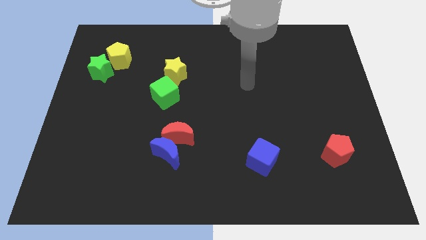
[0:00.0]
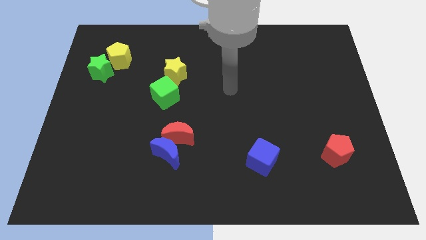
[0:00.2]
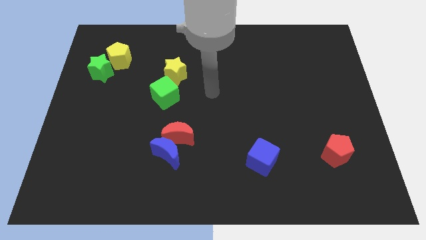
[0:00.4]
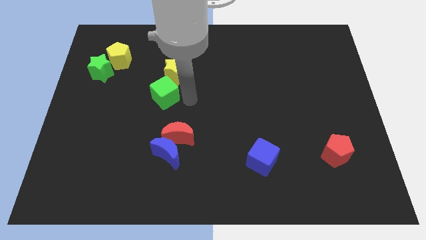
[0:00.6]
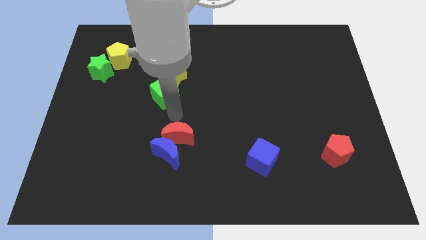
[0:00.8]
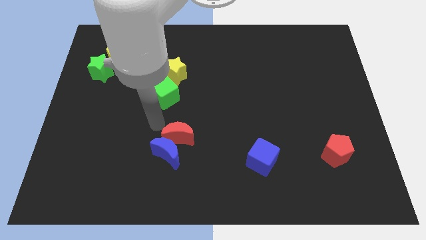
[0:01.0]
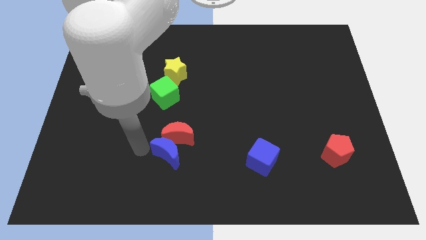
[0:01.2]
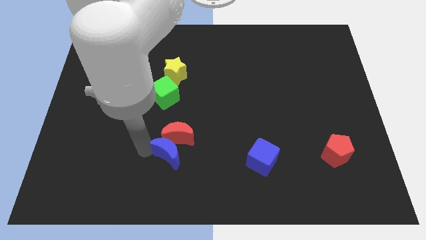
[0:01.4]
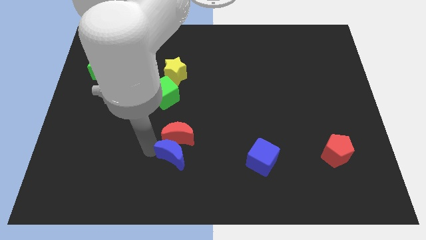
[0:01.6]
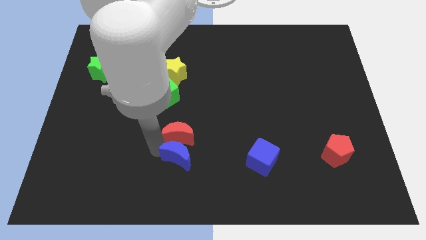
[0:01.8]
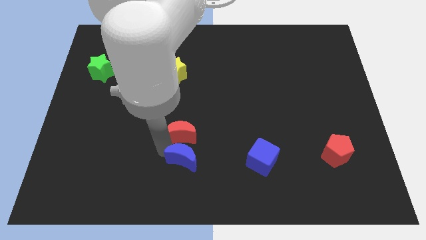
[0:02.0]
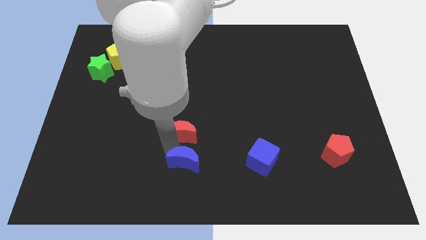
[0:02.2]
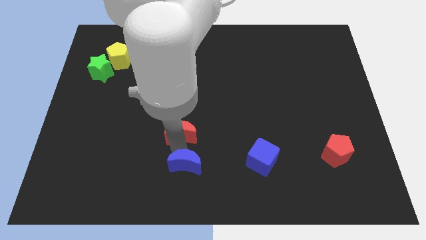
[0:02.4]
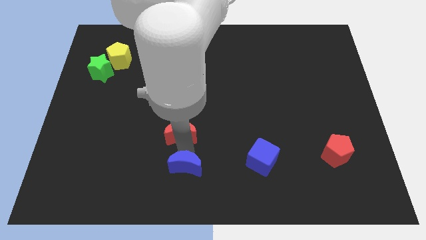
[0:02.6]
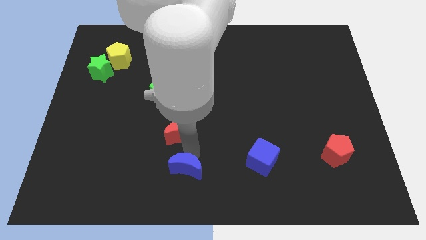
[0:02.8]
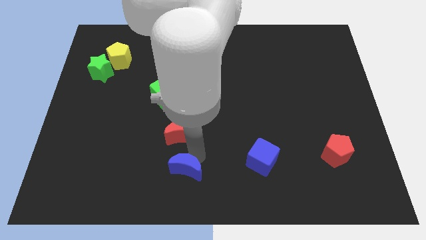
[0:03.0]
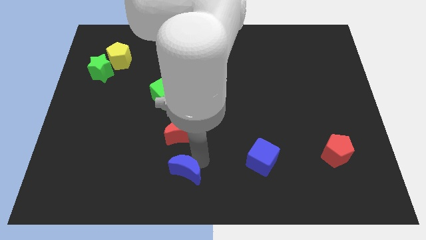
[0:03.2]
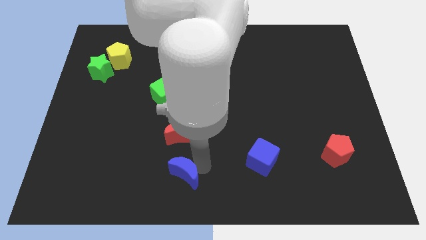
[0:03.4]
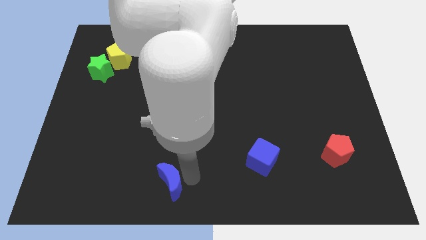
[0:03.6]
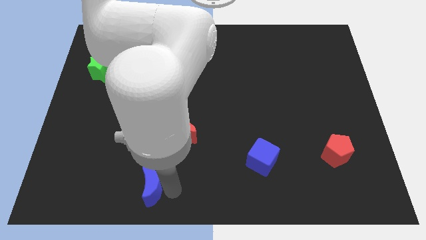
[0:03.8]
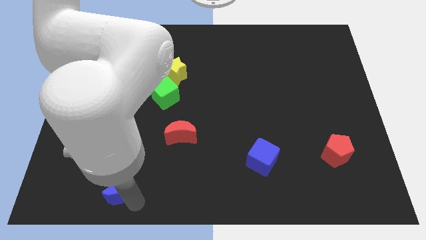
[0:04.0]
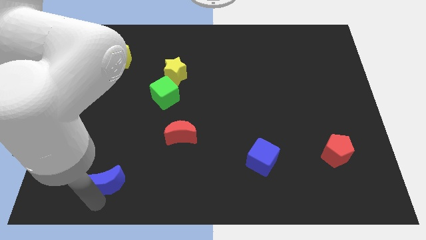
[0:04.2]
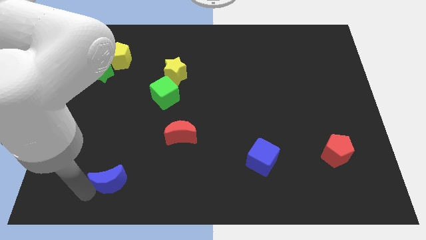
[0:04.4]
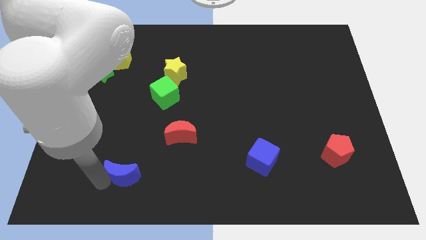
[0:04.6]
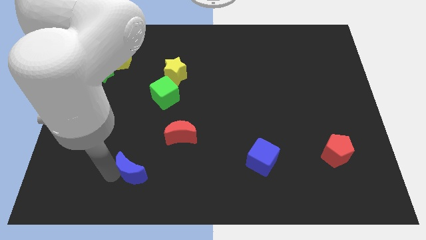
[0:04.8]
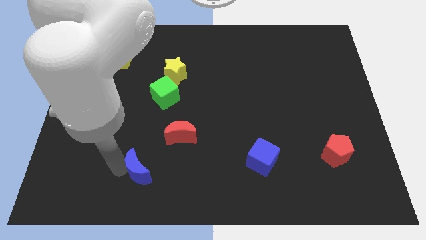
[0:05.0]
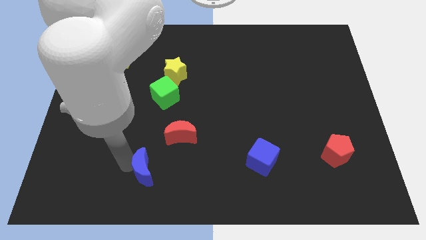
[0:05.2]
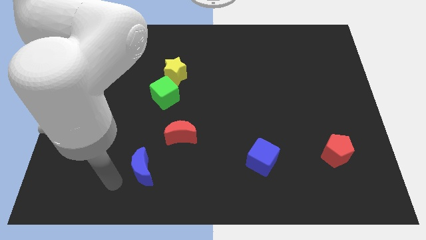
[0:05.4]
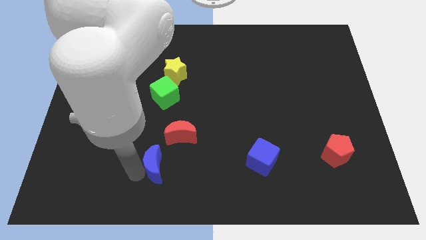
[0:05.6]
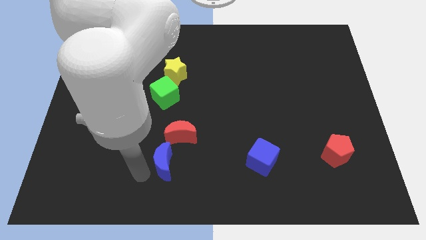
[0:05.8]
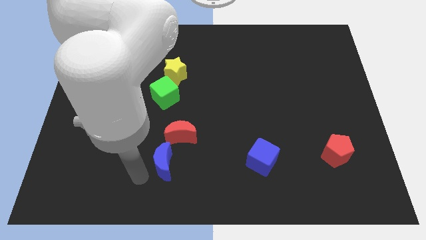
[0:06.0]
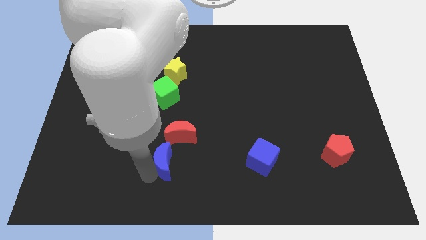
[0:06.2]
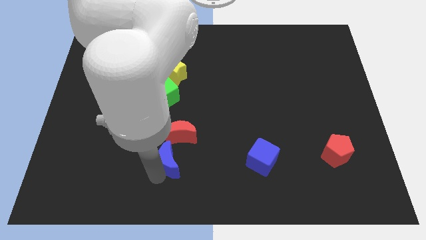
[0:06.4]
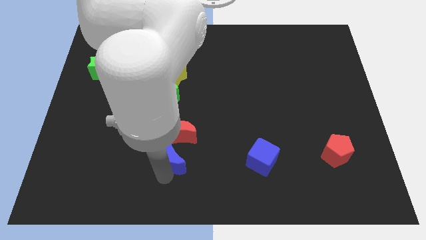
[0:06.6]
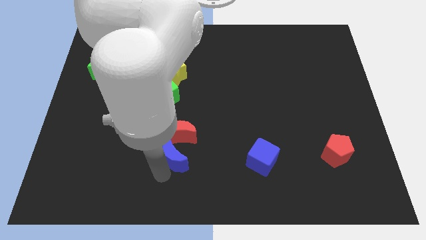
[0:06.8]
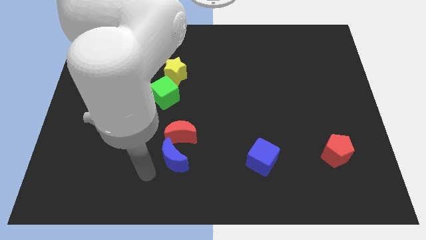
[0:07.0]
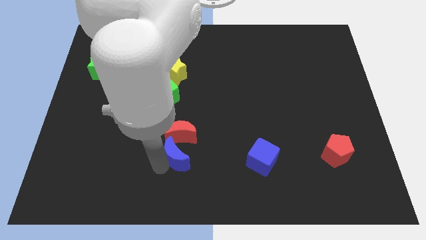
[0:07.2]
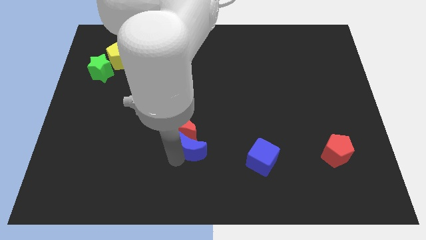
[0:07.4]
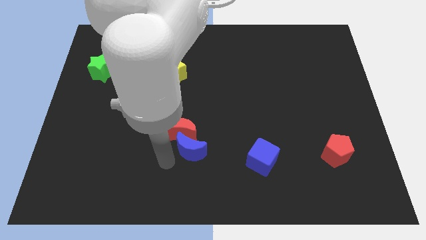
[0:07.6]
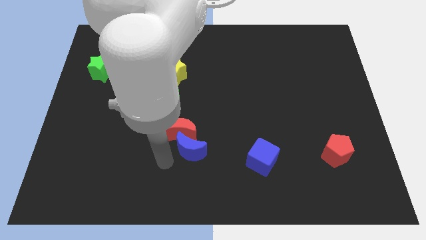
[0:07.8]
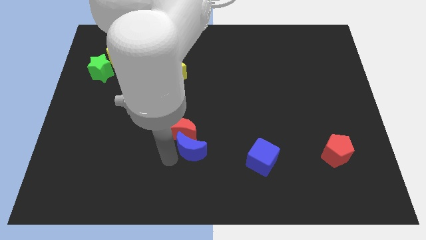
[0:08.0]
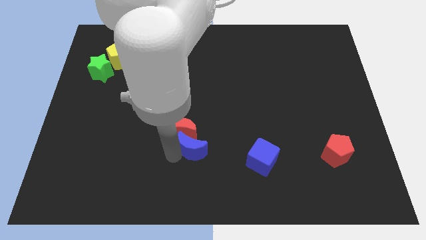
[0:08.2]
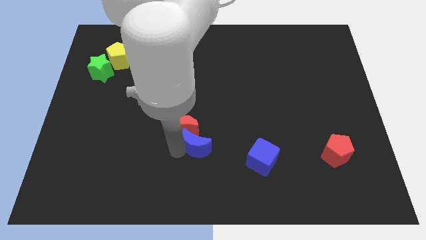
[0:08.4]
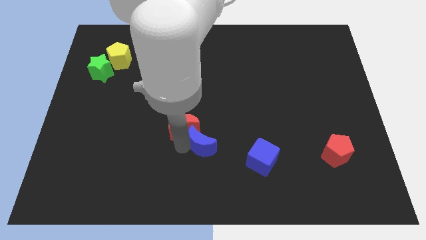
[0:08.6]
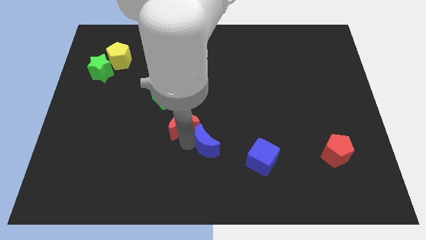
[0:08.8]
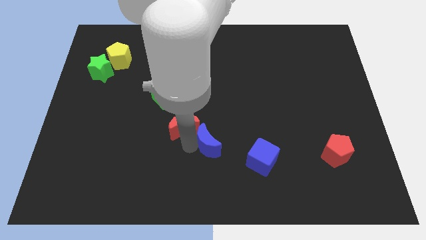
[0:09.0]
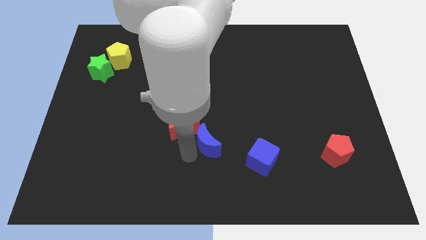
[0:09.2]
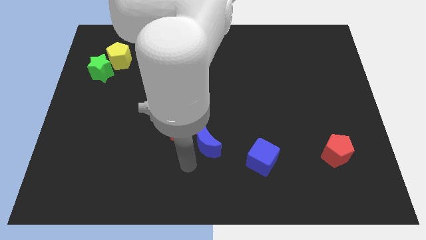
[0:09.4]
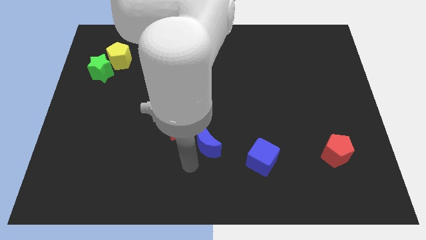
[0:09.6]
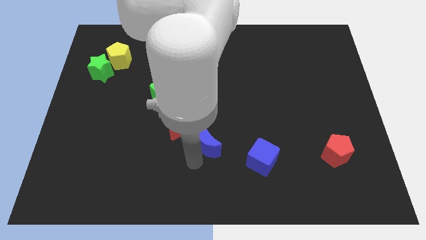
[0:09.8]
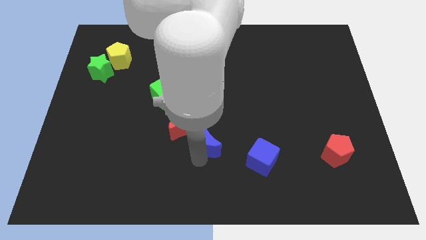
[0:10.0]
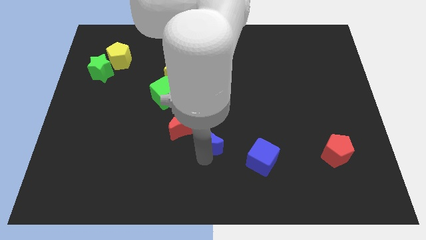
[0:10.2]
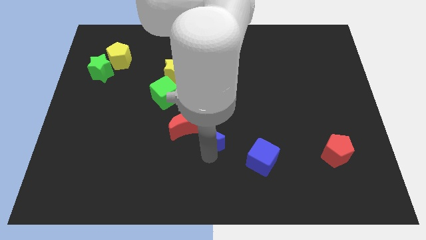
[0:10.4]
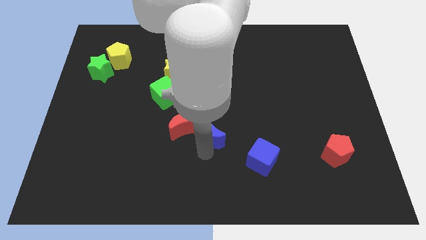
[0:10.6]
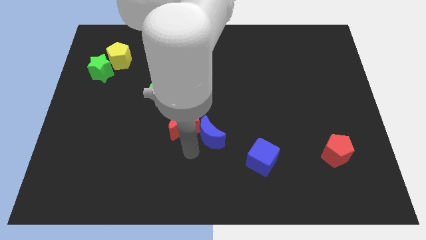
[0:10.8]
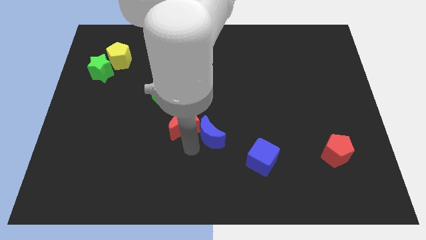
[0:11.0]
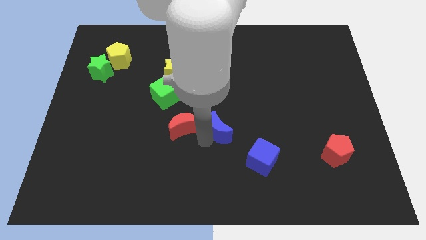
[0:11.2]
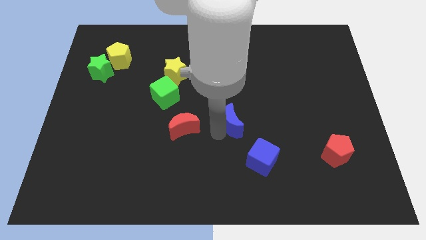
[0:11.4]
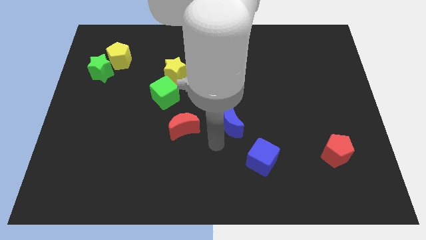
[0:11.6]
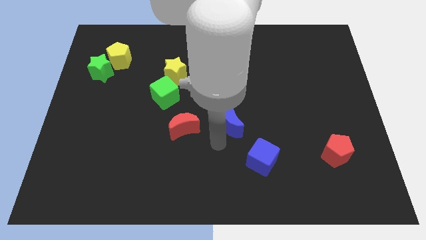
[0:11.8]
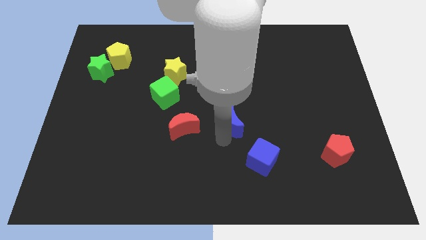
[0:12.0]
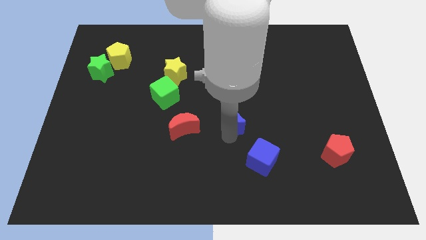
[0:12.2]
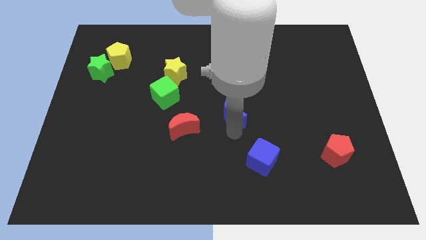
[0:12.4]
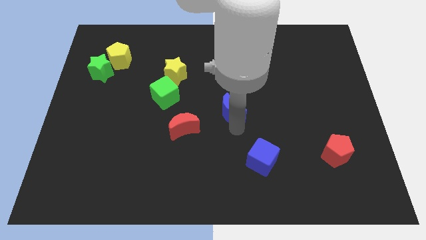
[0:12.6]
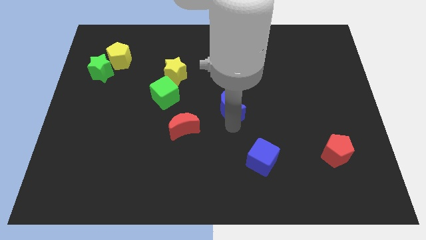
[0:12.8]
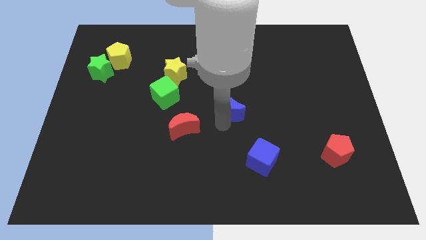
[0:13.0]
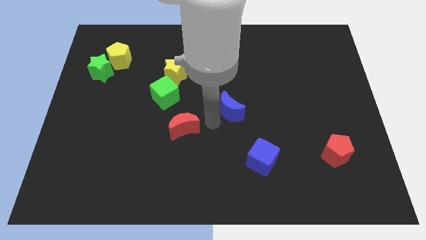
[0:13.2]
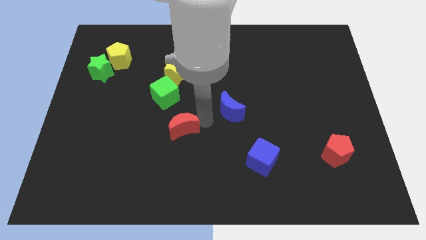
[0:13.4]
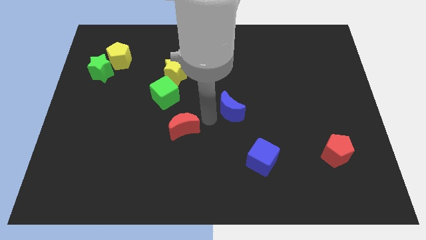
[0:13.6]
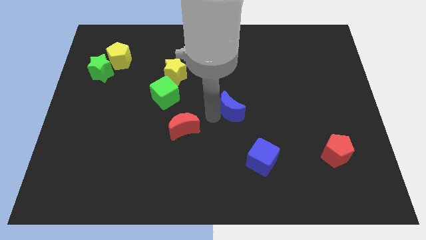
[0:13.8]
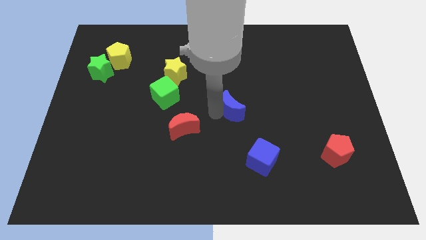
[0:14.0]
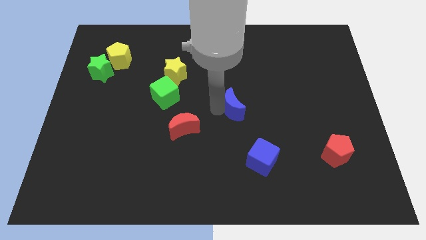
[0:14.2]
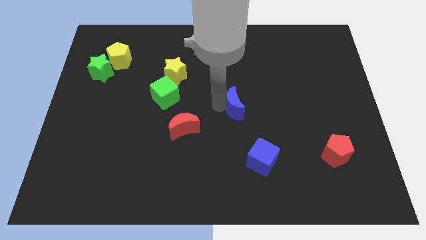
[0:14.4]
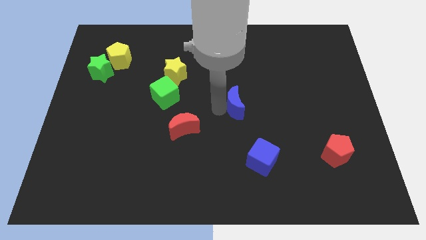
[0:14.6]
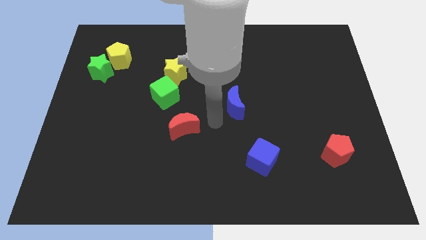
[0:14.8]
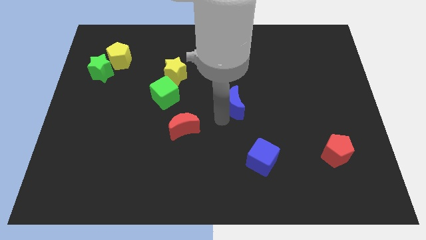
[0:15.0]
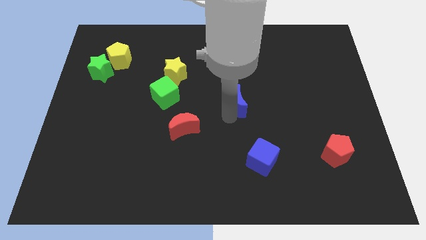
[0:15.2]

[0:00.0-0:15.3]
push the blue moon upwards and to the right diagonally

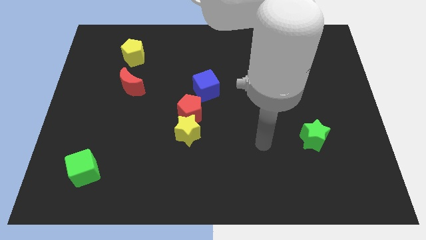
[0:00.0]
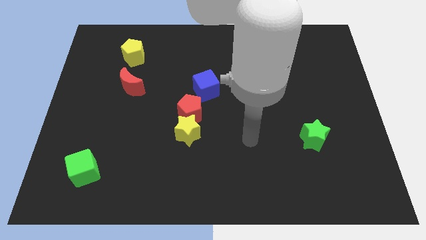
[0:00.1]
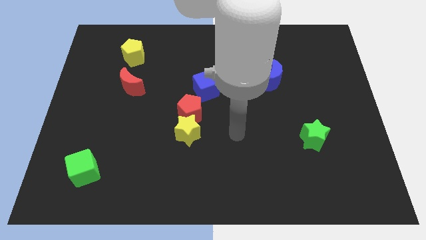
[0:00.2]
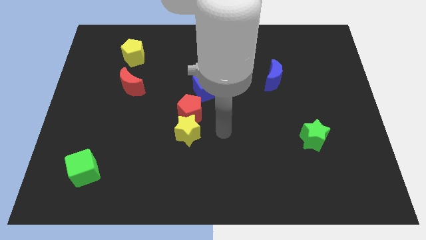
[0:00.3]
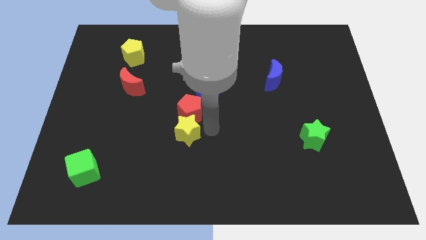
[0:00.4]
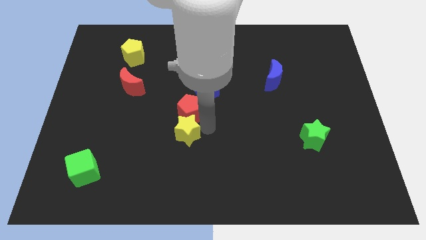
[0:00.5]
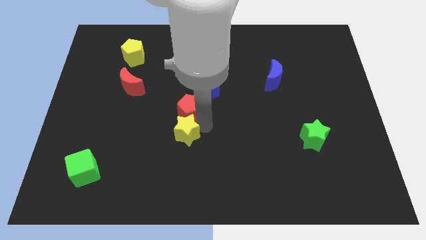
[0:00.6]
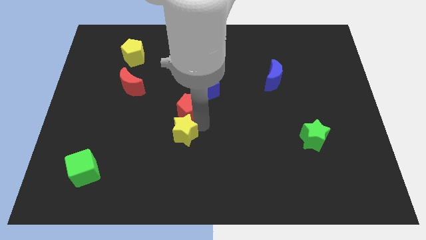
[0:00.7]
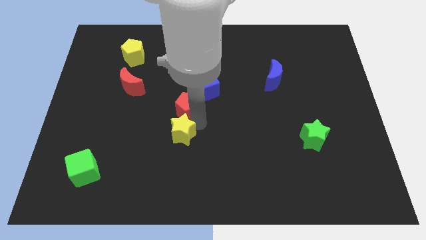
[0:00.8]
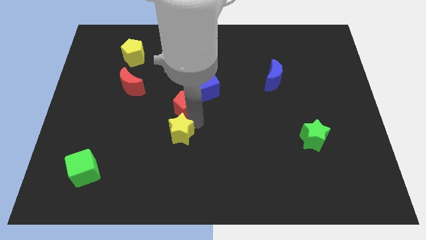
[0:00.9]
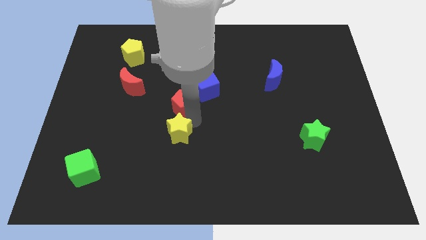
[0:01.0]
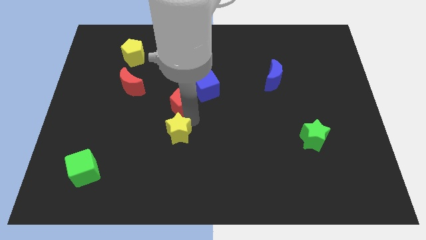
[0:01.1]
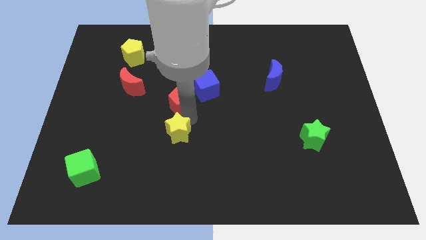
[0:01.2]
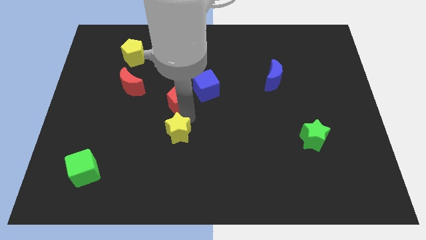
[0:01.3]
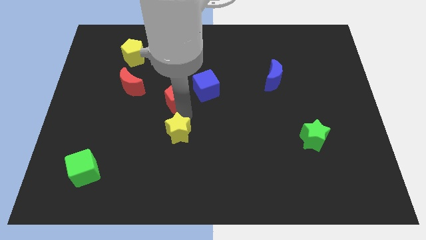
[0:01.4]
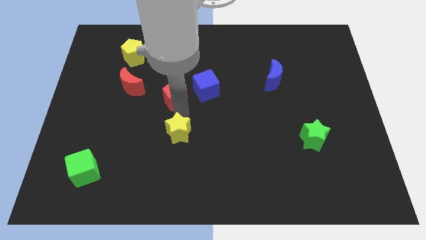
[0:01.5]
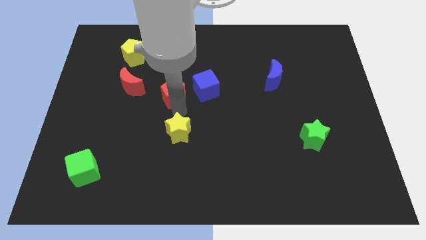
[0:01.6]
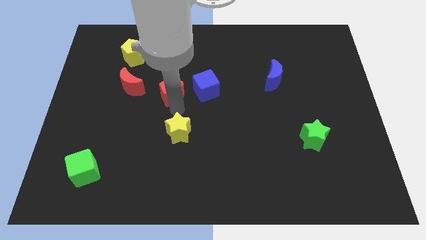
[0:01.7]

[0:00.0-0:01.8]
slide the red pentagon up and left diagonally slightly
